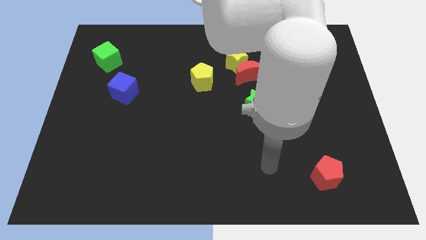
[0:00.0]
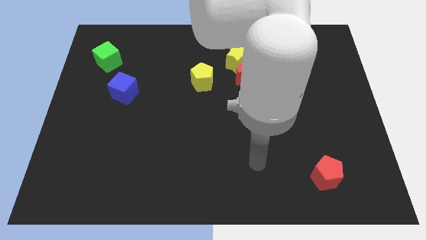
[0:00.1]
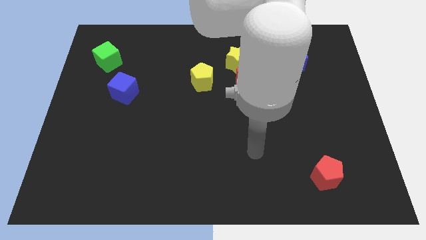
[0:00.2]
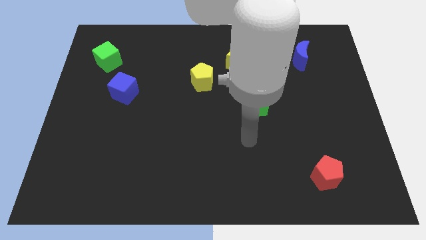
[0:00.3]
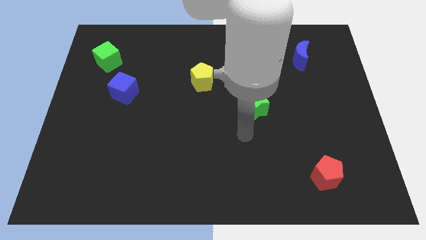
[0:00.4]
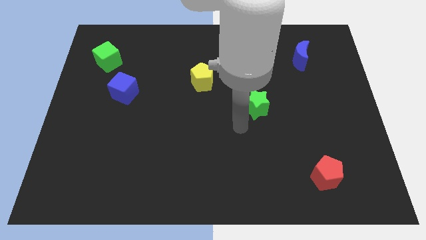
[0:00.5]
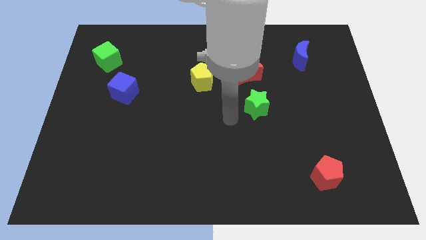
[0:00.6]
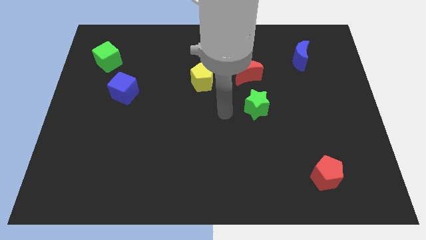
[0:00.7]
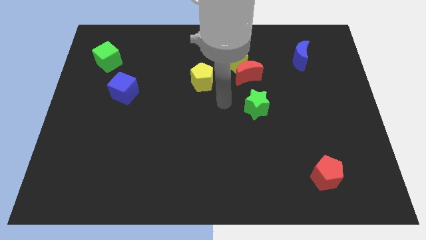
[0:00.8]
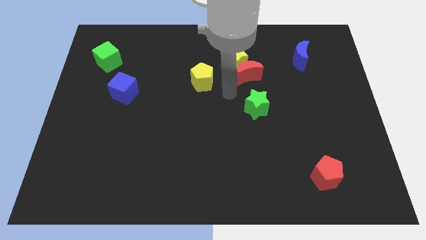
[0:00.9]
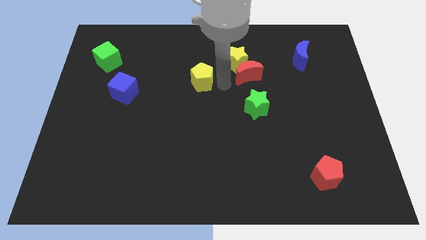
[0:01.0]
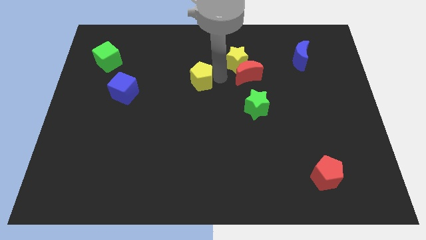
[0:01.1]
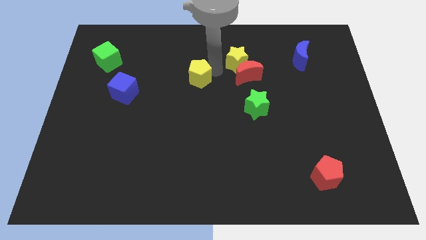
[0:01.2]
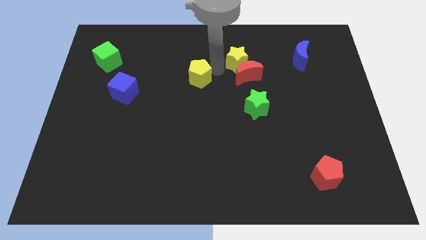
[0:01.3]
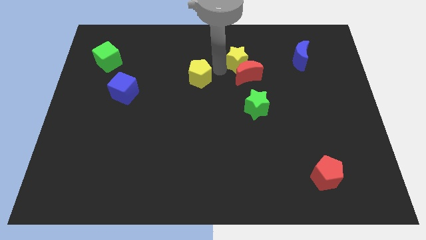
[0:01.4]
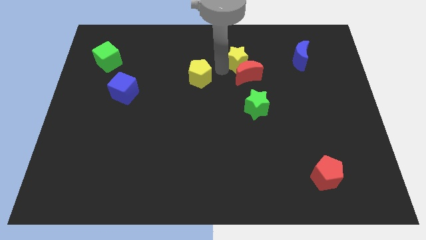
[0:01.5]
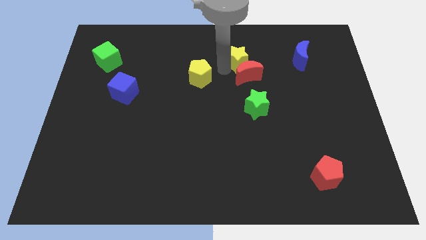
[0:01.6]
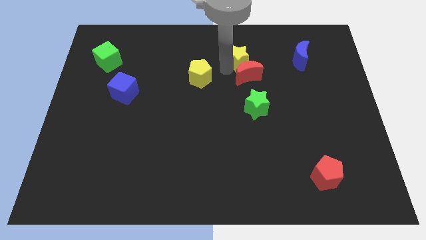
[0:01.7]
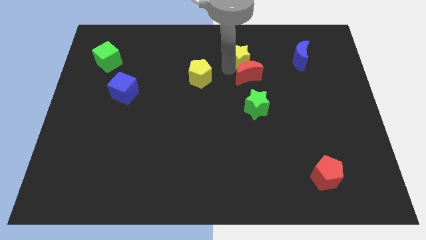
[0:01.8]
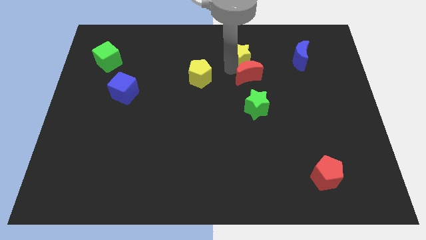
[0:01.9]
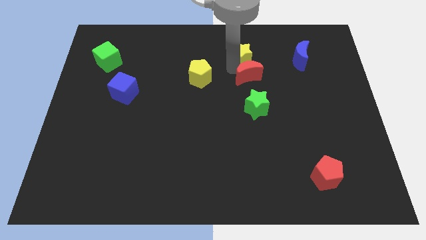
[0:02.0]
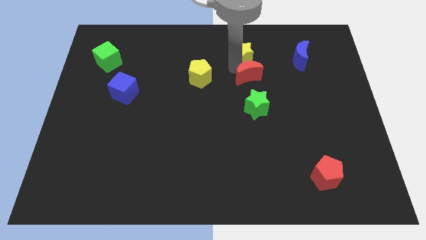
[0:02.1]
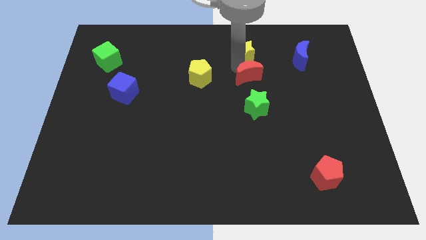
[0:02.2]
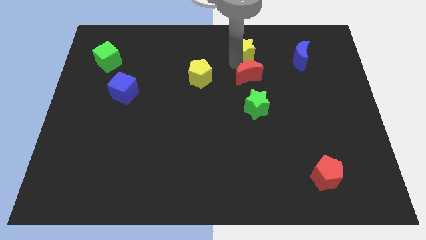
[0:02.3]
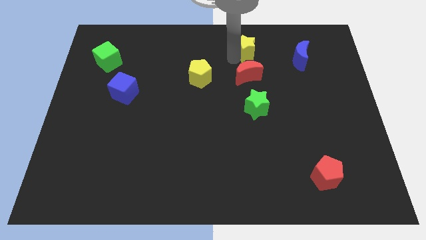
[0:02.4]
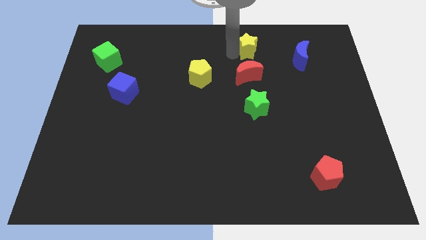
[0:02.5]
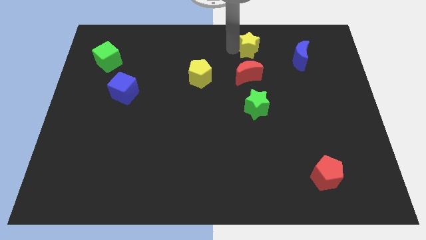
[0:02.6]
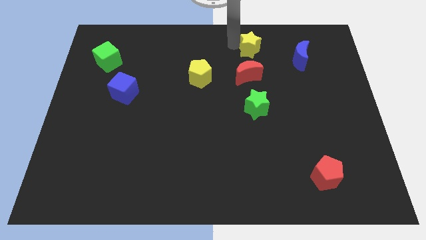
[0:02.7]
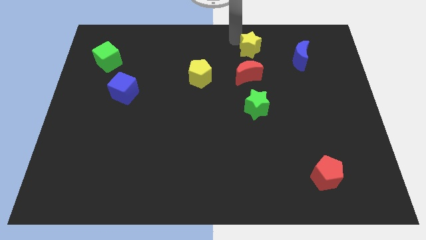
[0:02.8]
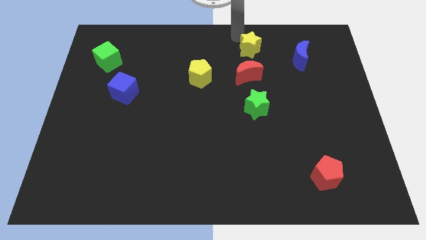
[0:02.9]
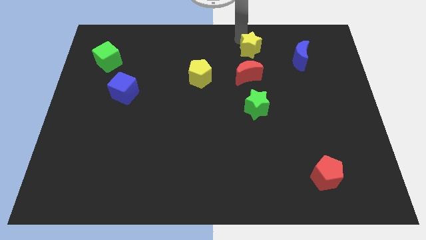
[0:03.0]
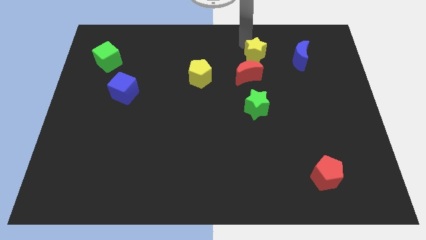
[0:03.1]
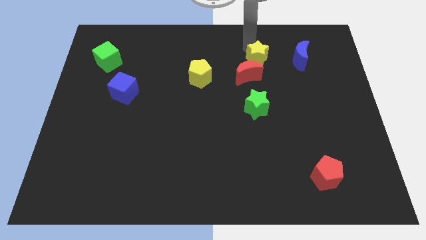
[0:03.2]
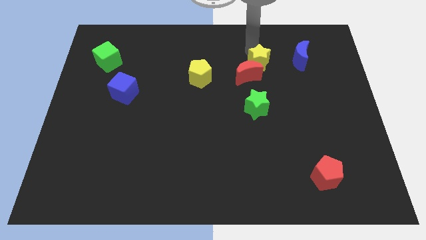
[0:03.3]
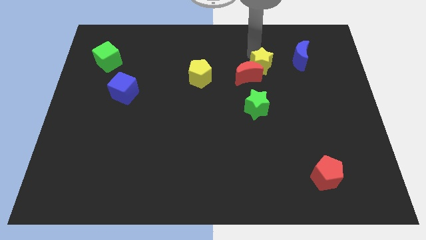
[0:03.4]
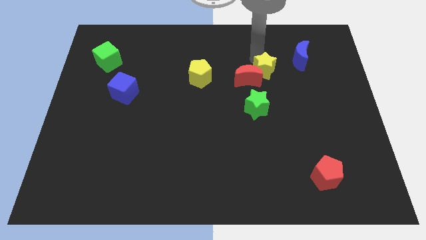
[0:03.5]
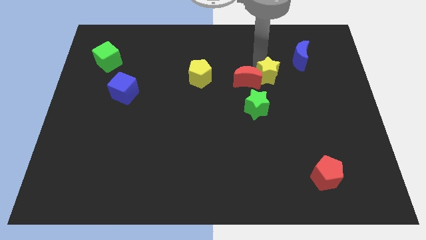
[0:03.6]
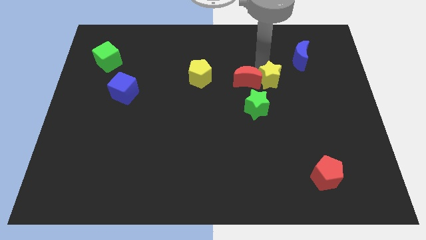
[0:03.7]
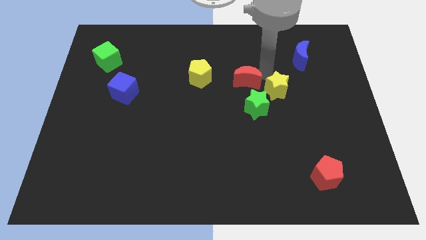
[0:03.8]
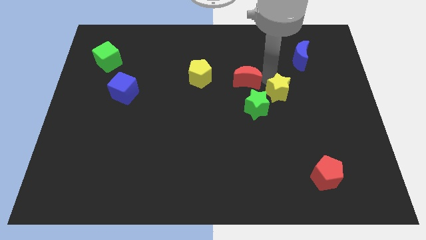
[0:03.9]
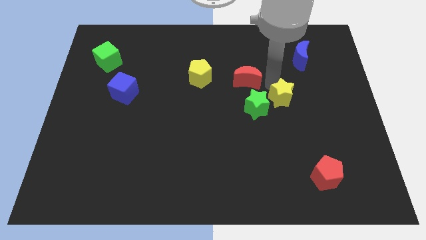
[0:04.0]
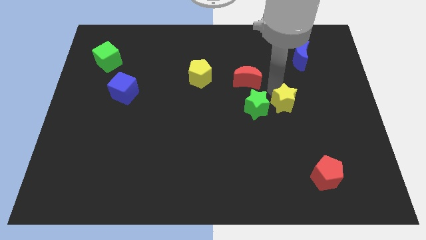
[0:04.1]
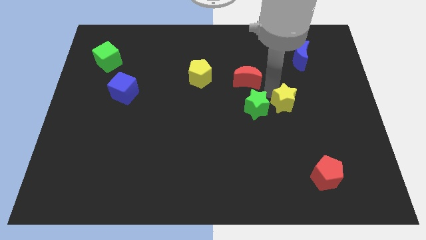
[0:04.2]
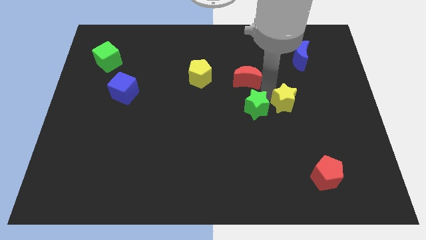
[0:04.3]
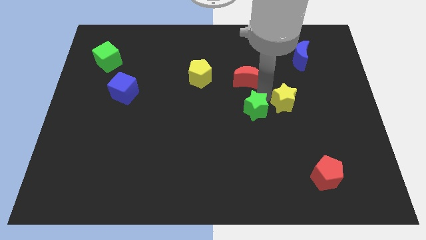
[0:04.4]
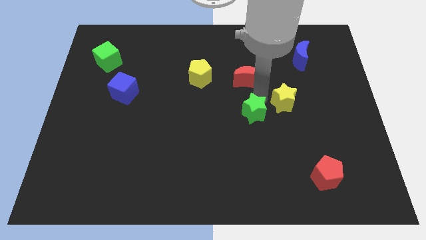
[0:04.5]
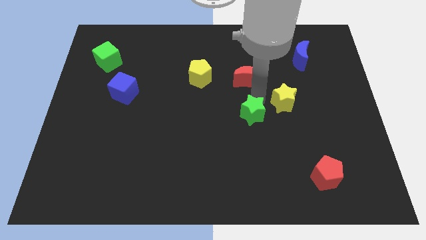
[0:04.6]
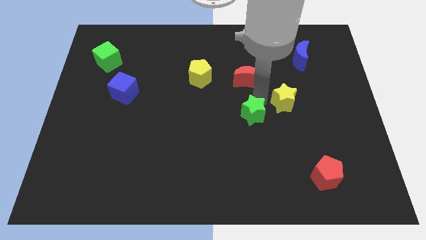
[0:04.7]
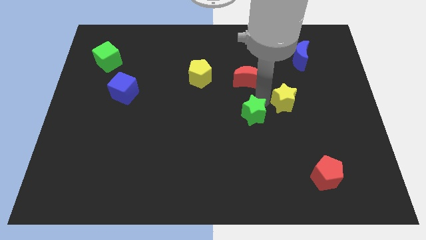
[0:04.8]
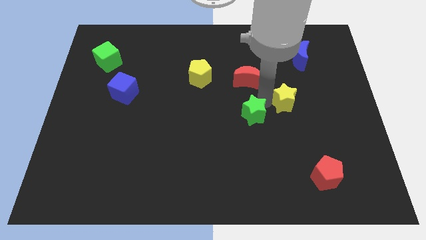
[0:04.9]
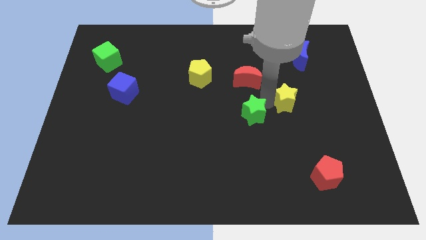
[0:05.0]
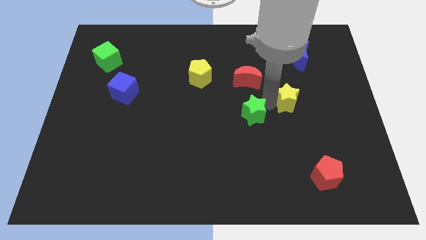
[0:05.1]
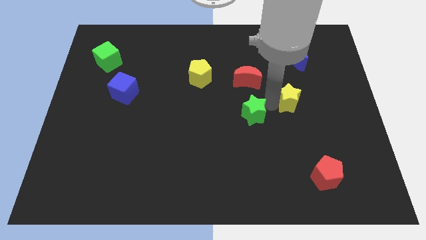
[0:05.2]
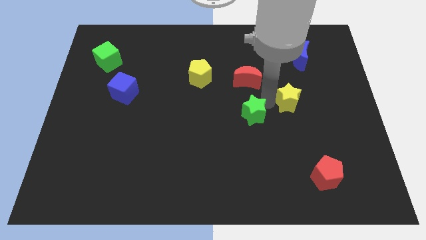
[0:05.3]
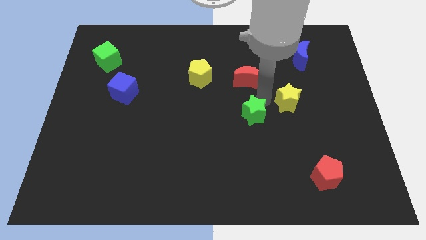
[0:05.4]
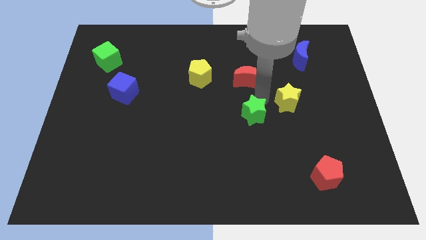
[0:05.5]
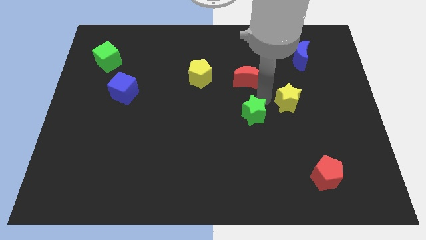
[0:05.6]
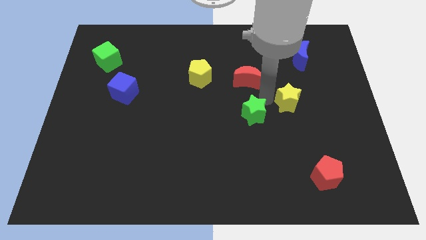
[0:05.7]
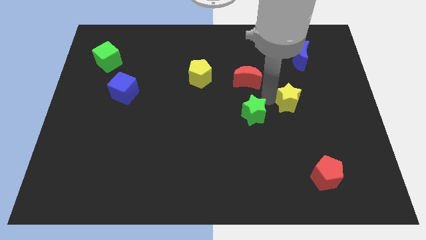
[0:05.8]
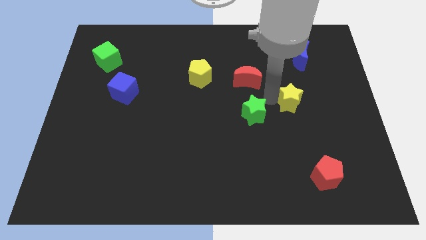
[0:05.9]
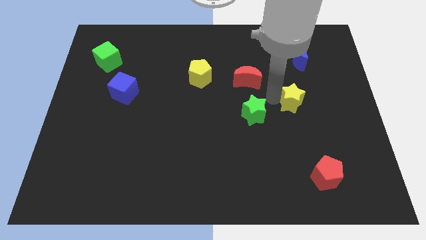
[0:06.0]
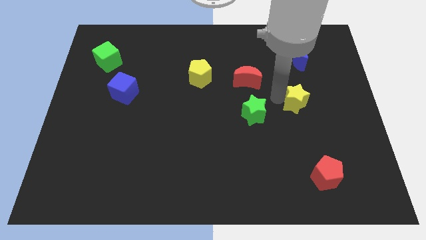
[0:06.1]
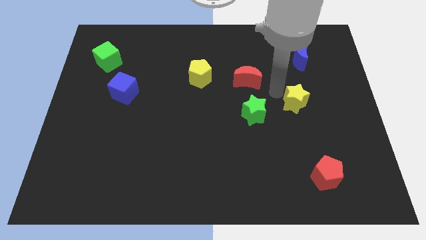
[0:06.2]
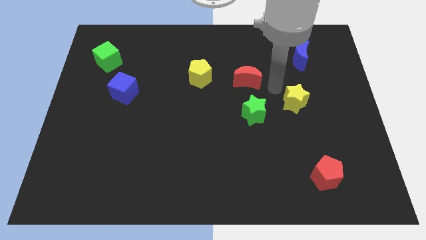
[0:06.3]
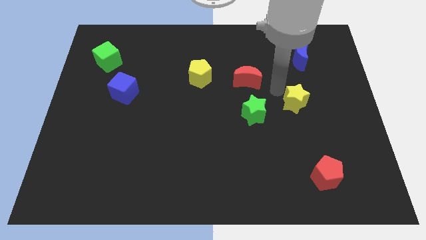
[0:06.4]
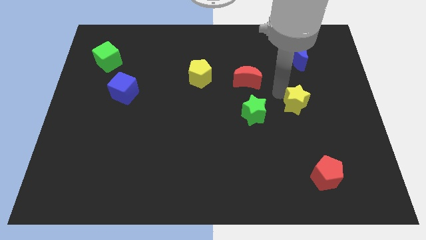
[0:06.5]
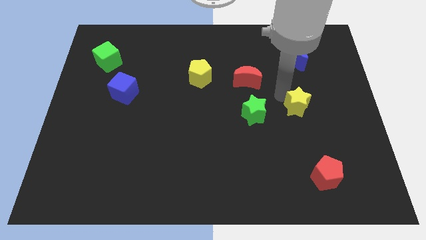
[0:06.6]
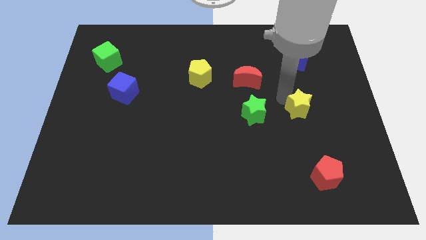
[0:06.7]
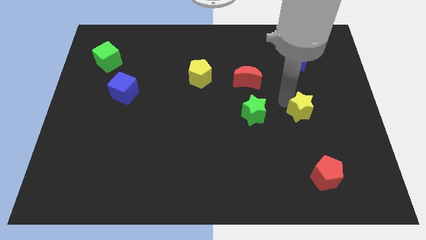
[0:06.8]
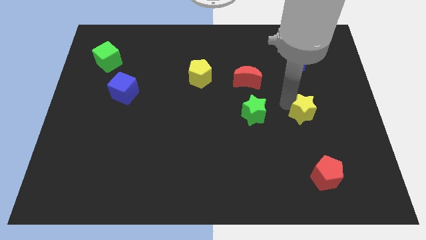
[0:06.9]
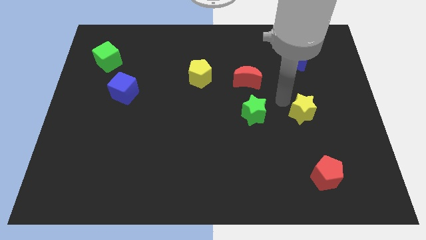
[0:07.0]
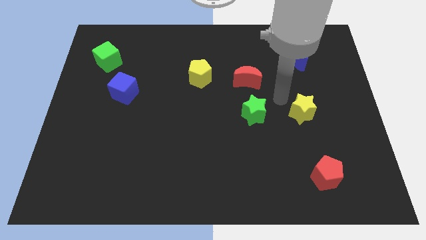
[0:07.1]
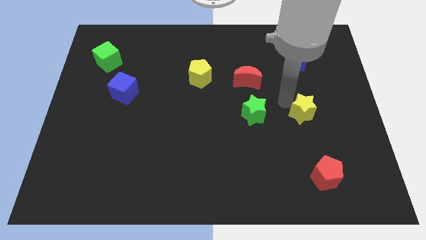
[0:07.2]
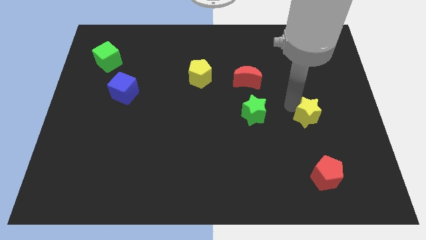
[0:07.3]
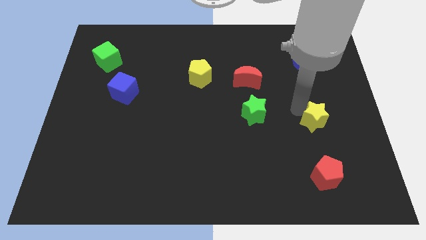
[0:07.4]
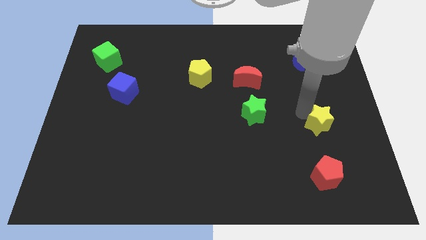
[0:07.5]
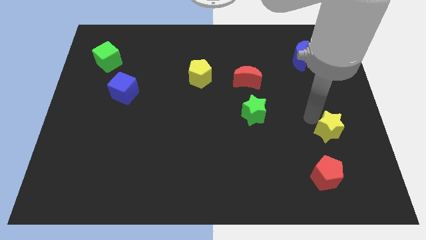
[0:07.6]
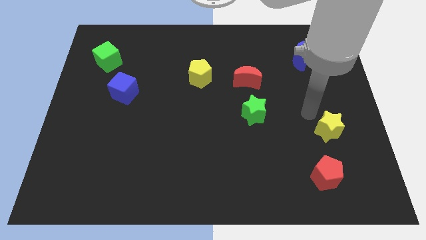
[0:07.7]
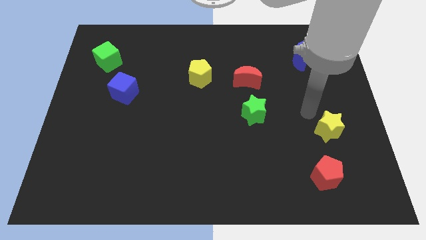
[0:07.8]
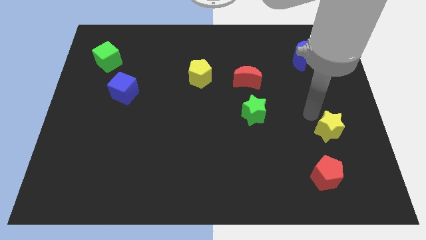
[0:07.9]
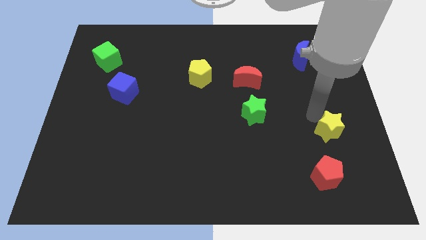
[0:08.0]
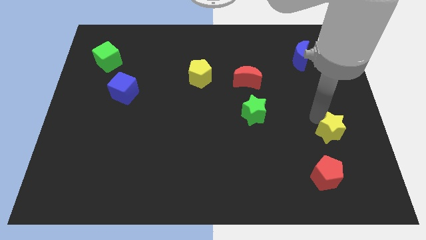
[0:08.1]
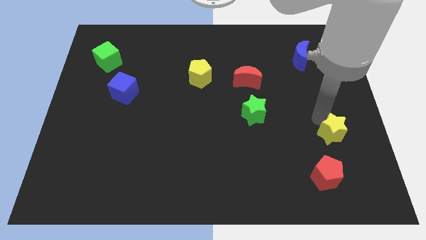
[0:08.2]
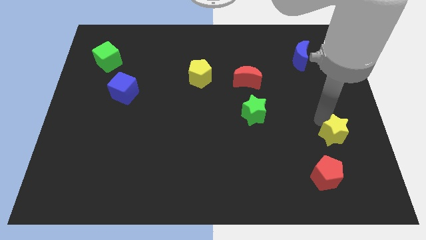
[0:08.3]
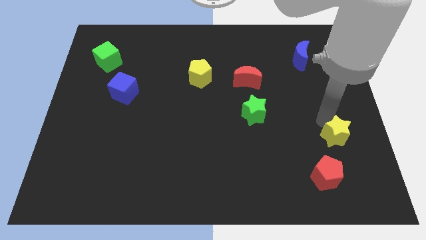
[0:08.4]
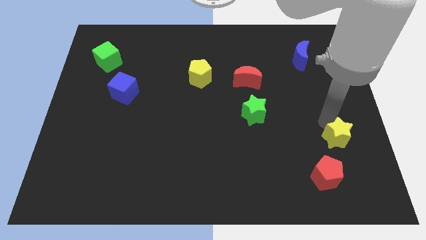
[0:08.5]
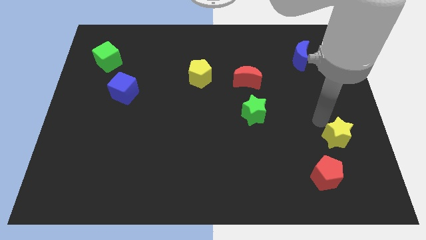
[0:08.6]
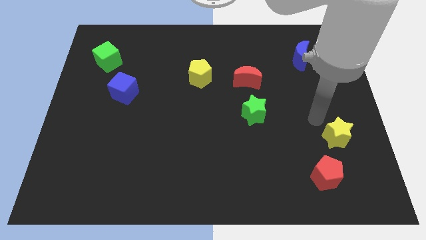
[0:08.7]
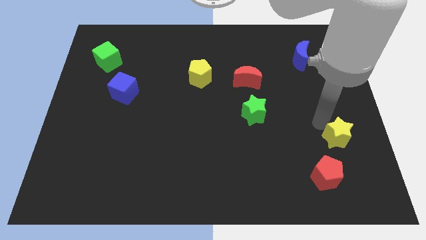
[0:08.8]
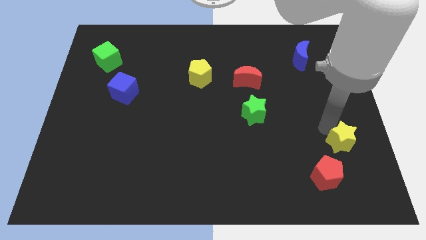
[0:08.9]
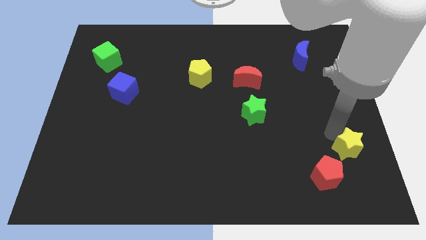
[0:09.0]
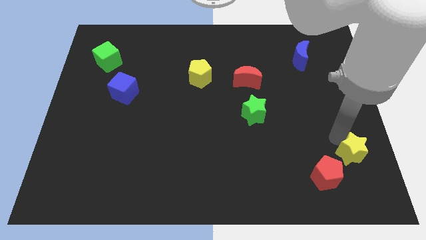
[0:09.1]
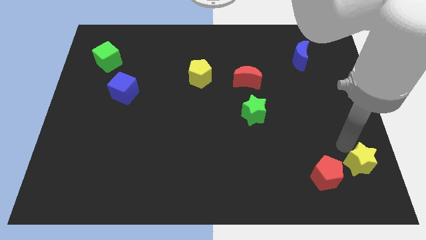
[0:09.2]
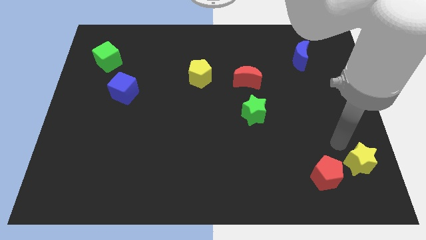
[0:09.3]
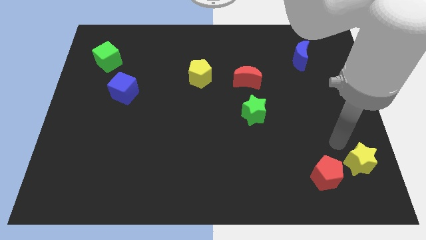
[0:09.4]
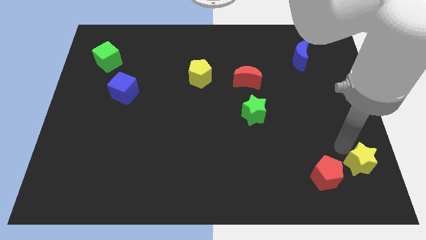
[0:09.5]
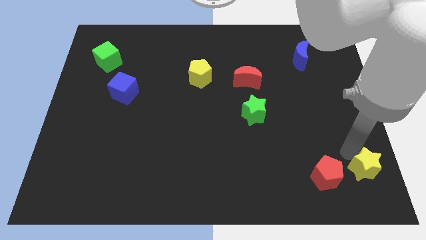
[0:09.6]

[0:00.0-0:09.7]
move the yellow star to the bottom right of the board
